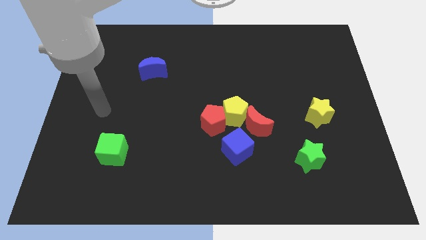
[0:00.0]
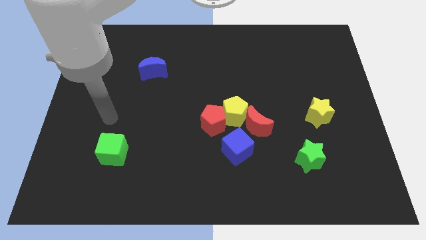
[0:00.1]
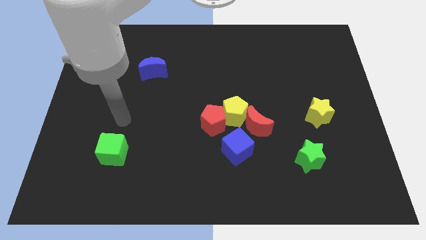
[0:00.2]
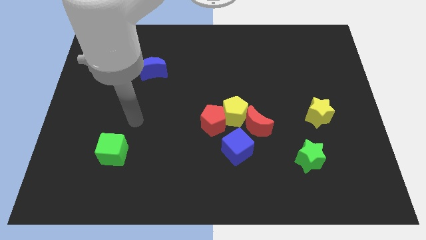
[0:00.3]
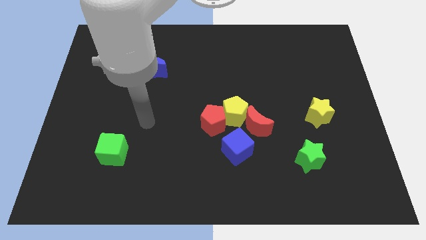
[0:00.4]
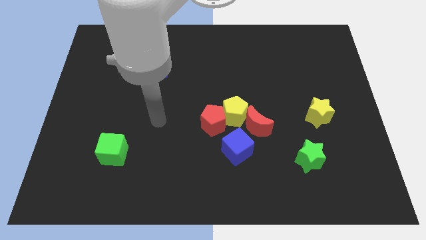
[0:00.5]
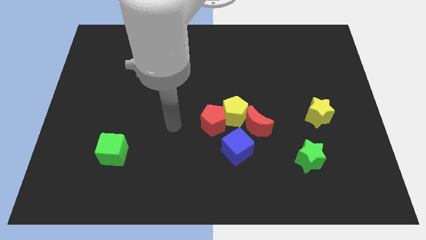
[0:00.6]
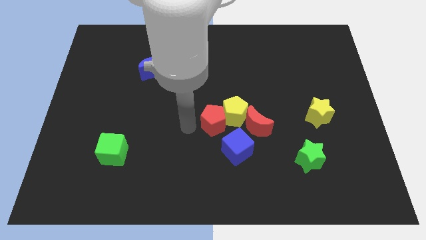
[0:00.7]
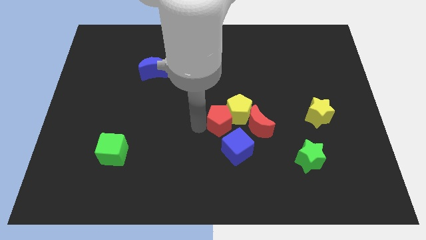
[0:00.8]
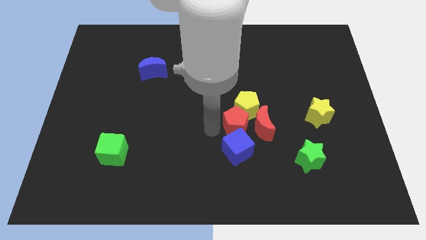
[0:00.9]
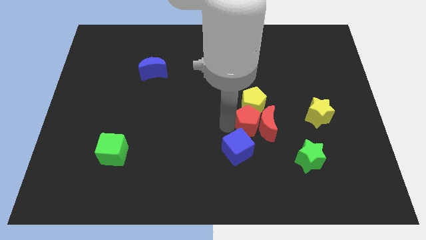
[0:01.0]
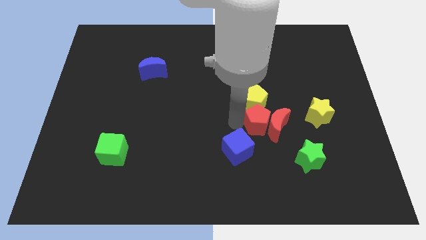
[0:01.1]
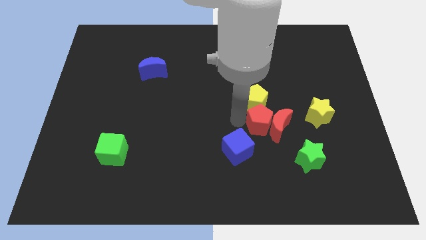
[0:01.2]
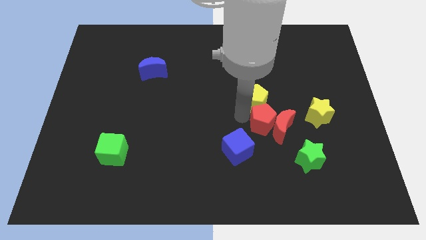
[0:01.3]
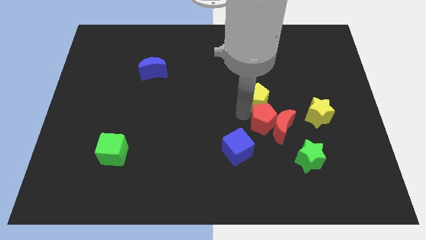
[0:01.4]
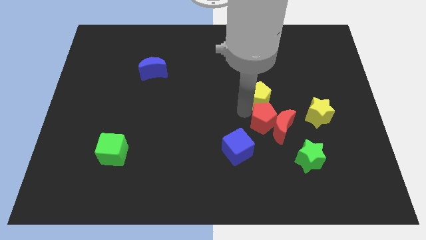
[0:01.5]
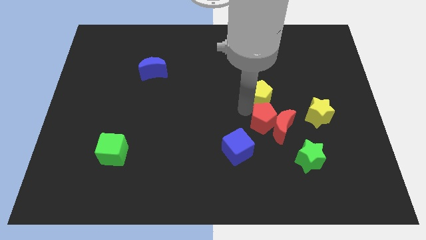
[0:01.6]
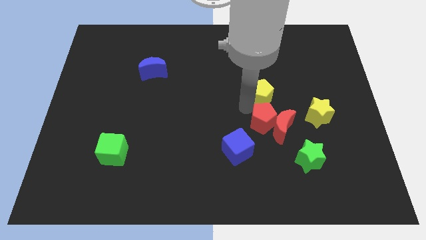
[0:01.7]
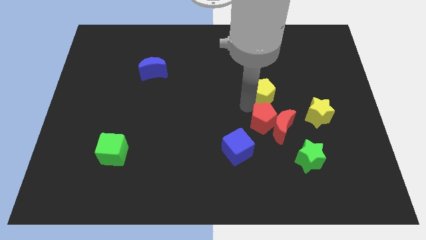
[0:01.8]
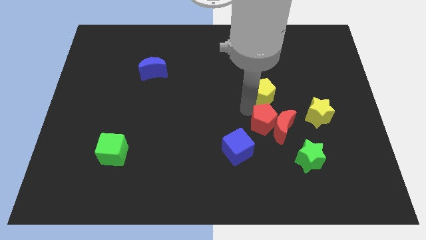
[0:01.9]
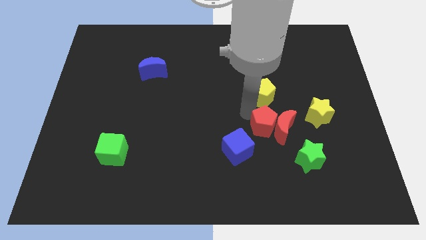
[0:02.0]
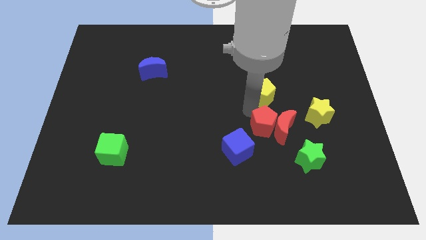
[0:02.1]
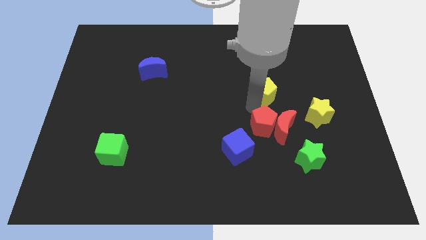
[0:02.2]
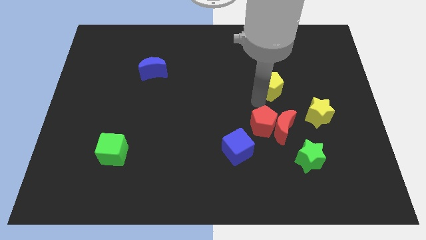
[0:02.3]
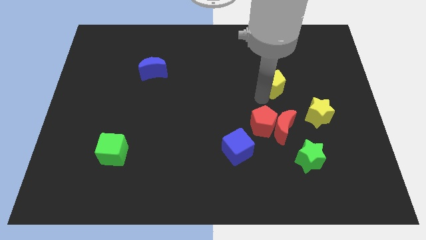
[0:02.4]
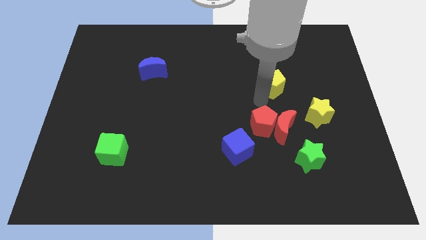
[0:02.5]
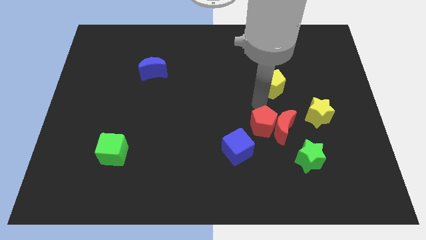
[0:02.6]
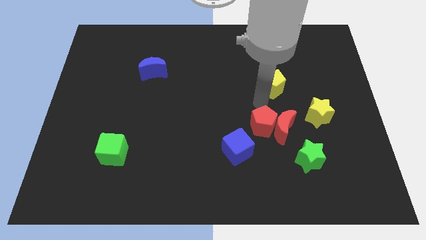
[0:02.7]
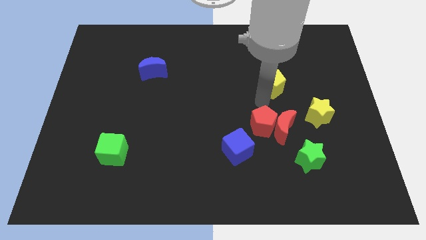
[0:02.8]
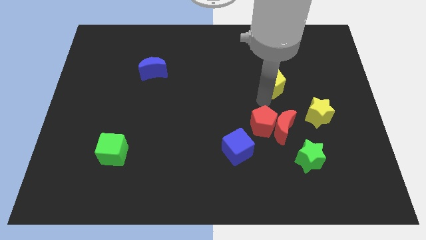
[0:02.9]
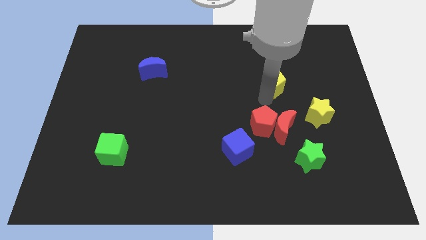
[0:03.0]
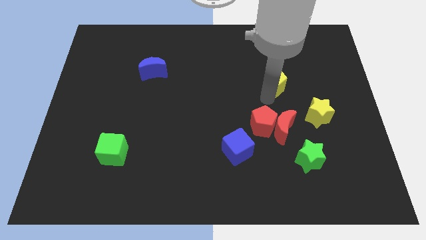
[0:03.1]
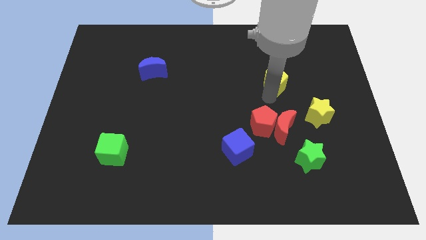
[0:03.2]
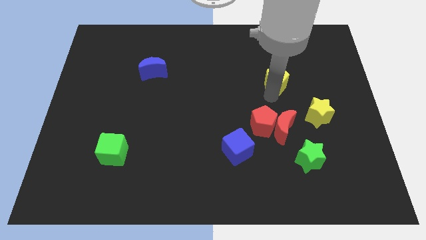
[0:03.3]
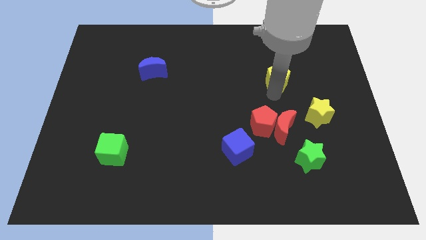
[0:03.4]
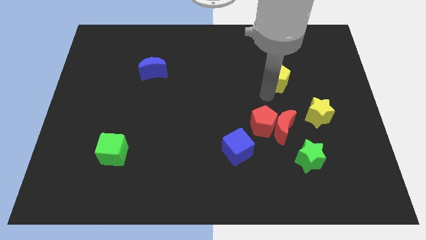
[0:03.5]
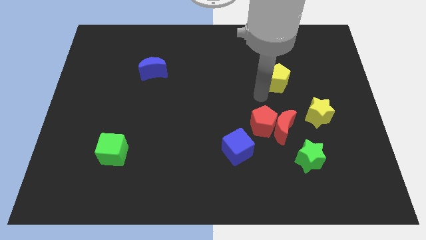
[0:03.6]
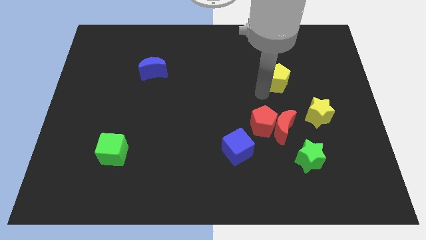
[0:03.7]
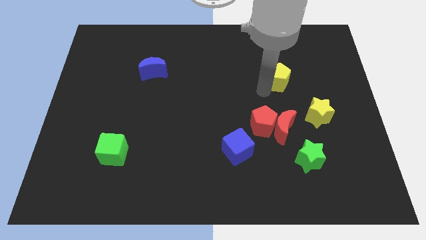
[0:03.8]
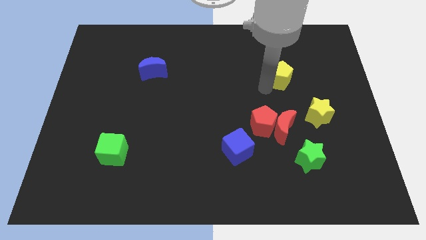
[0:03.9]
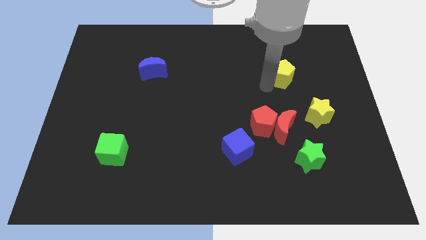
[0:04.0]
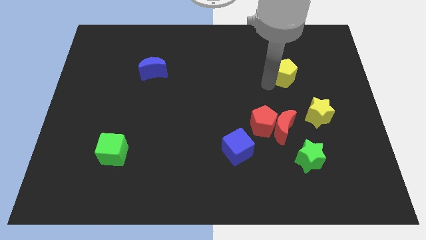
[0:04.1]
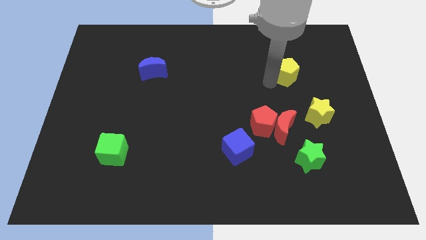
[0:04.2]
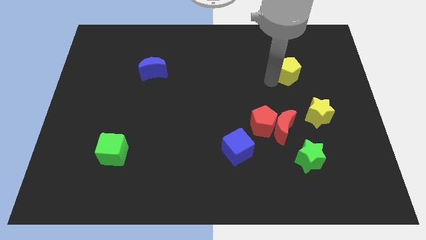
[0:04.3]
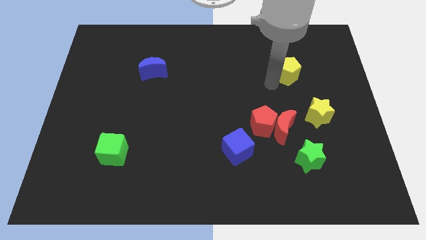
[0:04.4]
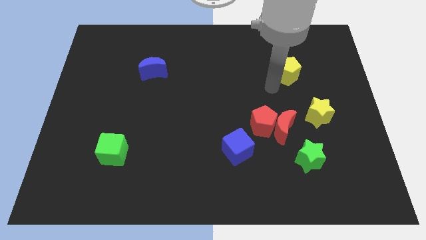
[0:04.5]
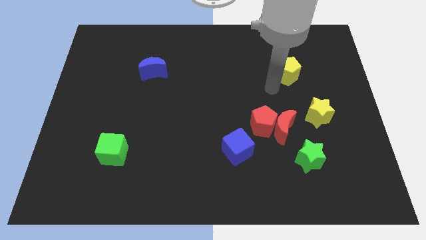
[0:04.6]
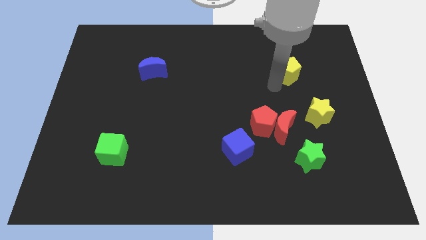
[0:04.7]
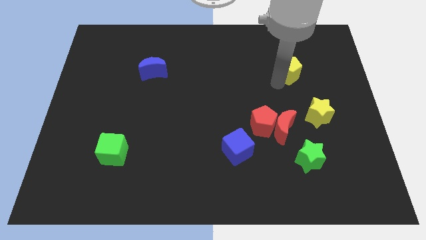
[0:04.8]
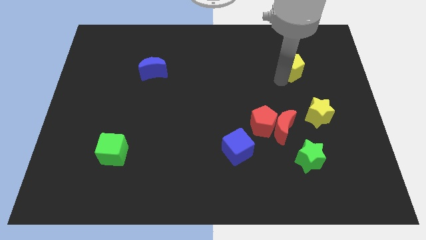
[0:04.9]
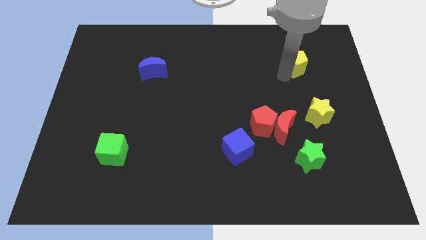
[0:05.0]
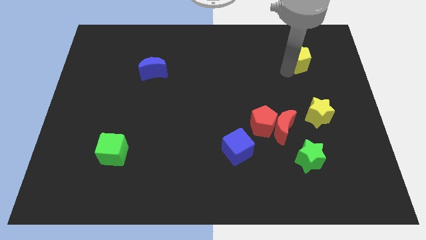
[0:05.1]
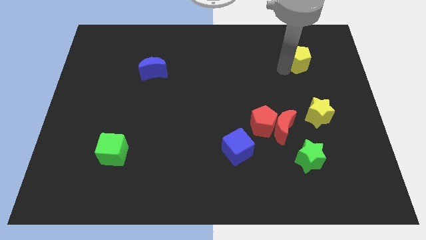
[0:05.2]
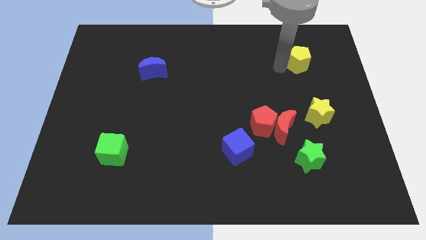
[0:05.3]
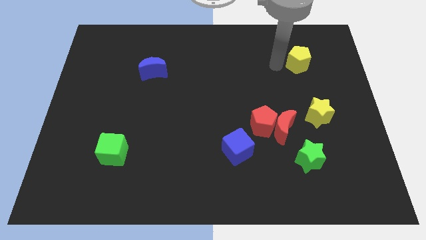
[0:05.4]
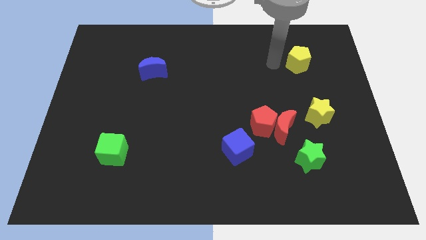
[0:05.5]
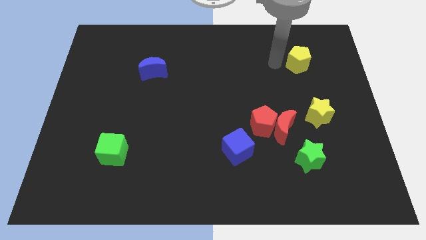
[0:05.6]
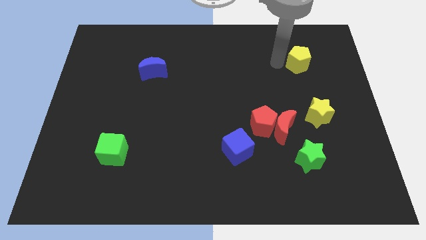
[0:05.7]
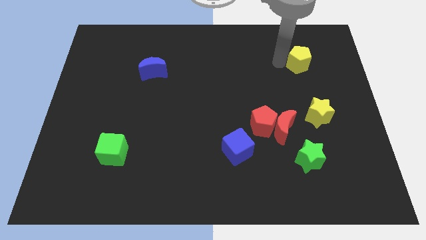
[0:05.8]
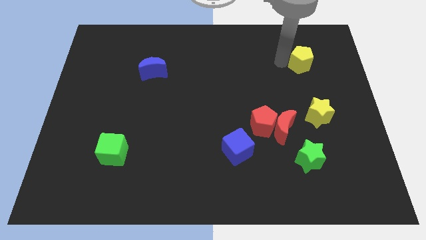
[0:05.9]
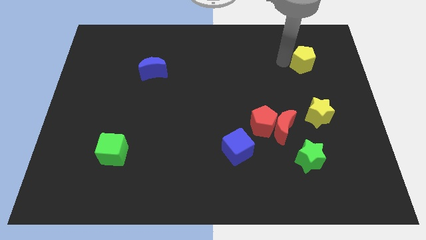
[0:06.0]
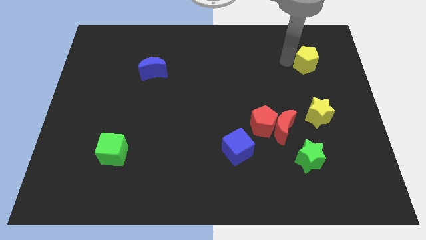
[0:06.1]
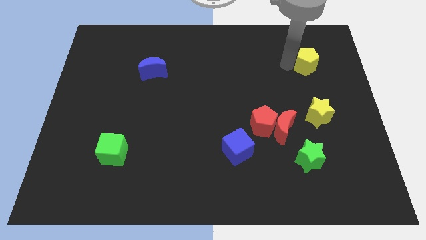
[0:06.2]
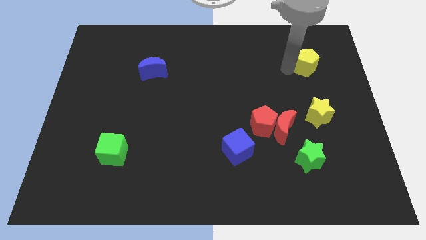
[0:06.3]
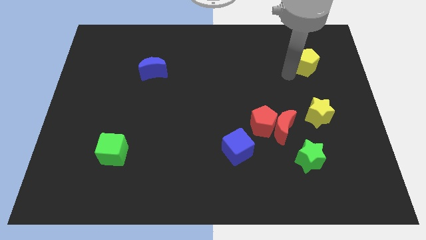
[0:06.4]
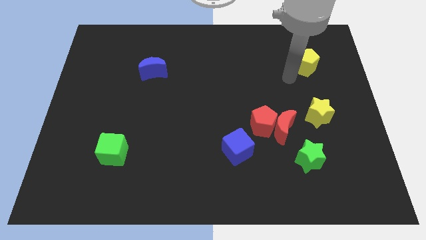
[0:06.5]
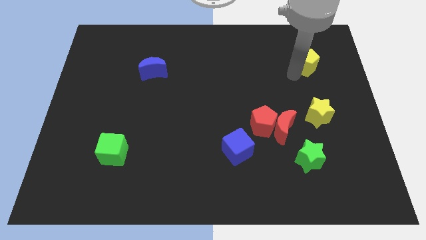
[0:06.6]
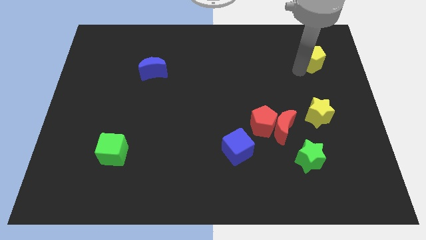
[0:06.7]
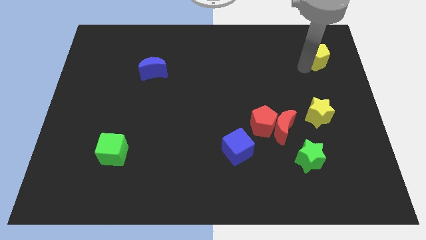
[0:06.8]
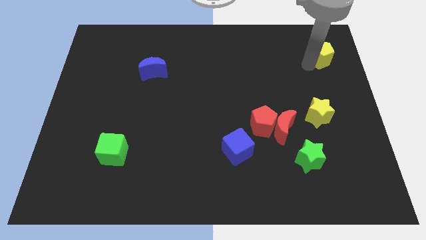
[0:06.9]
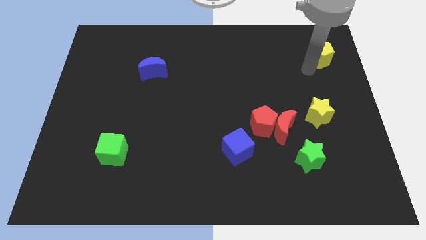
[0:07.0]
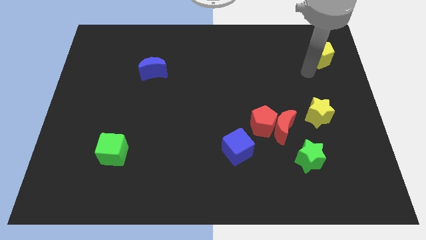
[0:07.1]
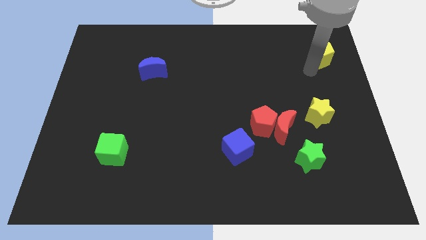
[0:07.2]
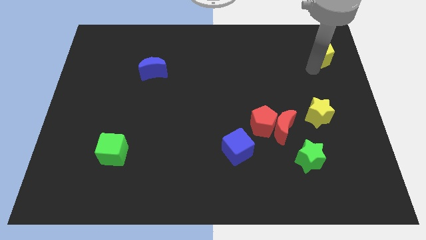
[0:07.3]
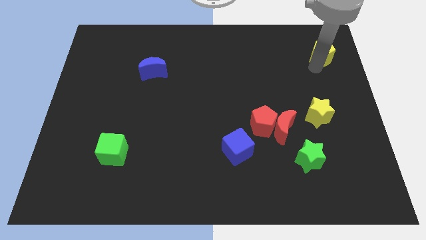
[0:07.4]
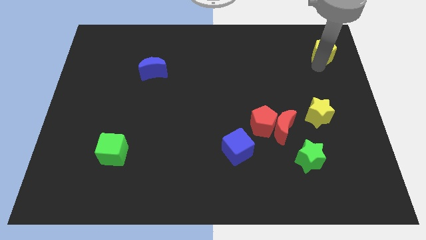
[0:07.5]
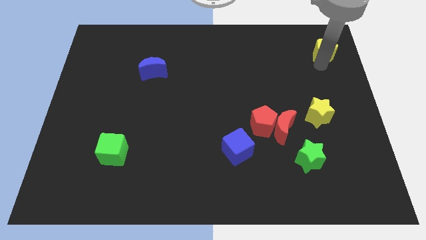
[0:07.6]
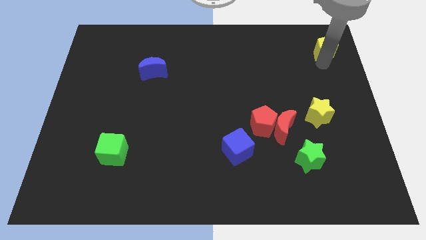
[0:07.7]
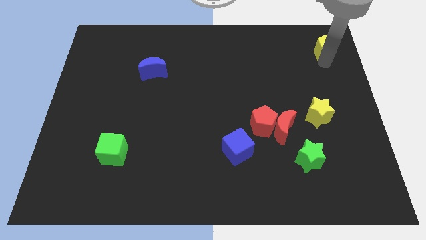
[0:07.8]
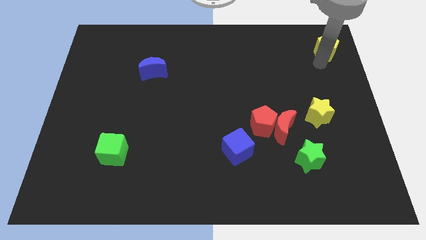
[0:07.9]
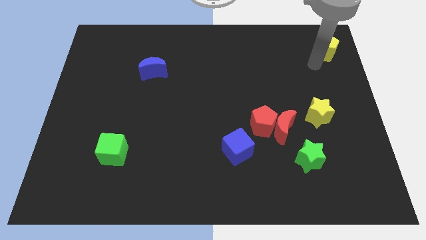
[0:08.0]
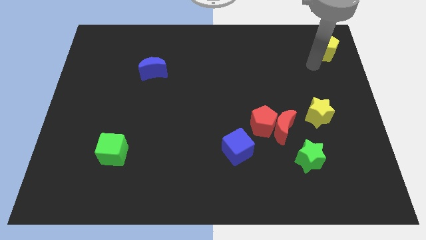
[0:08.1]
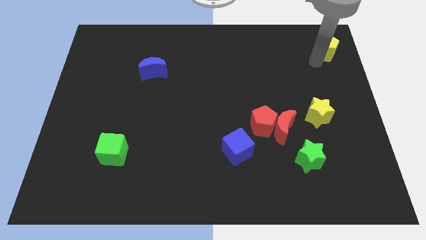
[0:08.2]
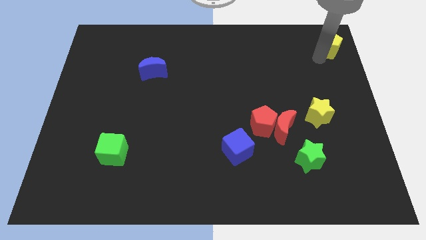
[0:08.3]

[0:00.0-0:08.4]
push the yellow pentagon to the top right
